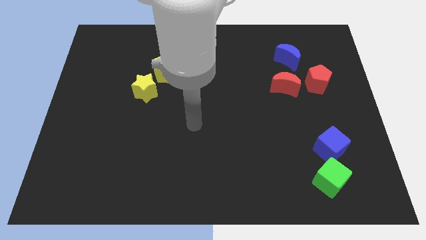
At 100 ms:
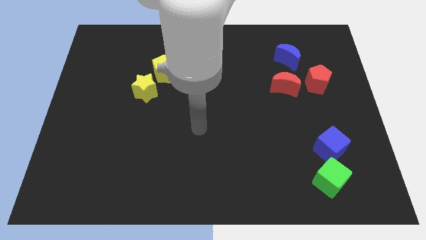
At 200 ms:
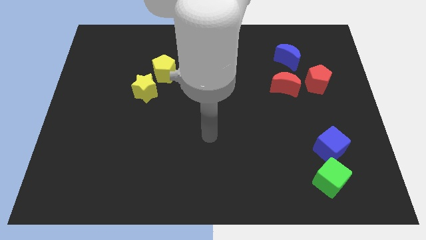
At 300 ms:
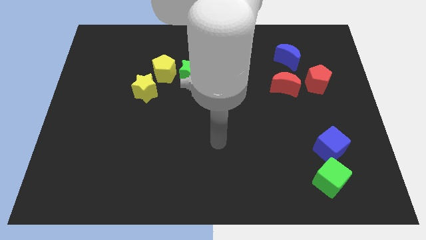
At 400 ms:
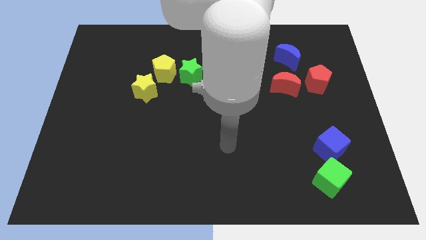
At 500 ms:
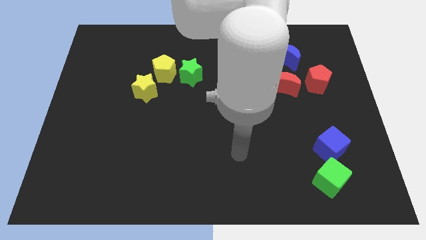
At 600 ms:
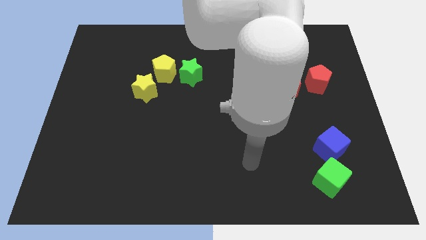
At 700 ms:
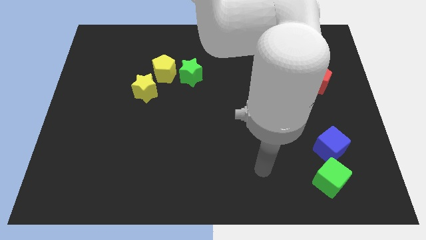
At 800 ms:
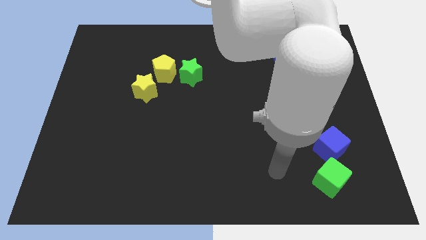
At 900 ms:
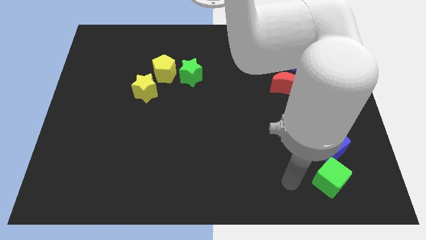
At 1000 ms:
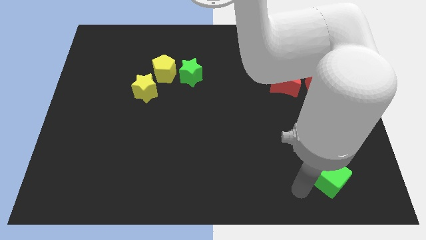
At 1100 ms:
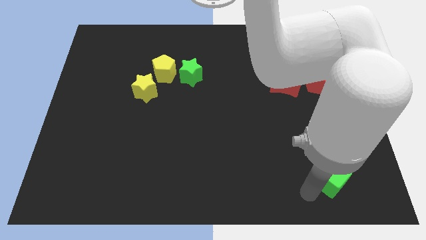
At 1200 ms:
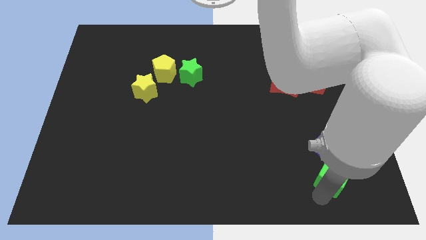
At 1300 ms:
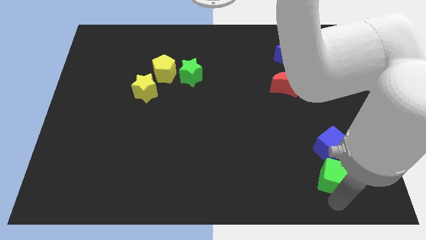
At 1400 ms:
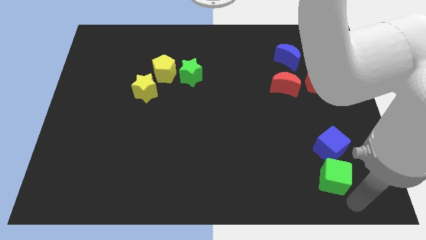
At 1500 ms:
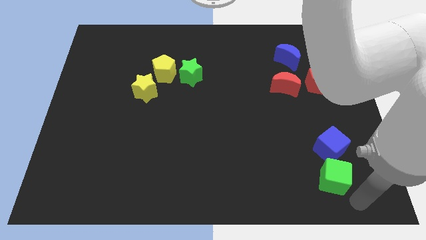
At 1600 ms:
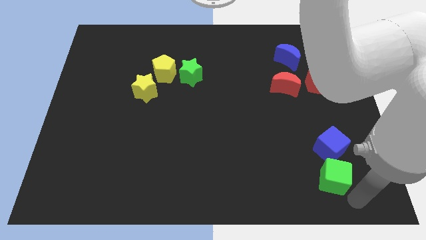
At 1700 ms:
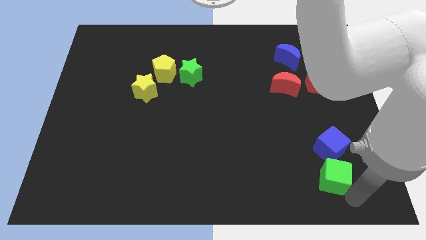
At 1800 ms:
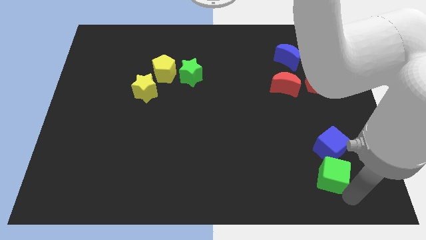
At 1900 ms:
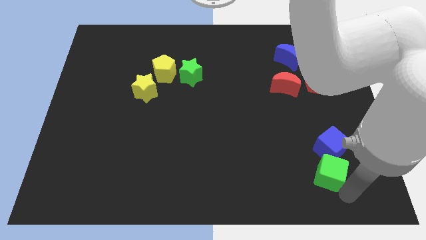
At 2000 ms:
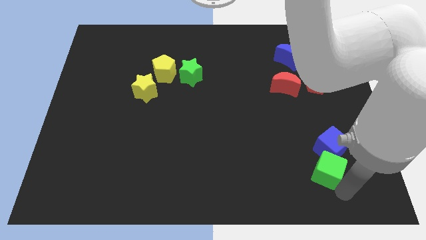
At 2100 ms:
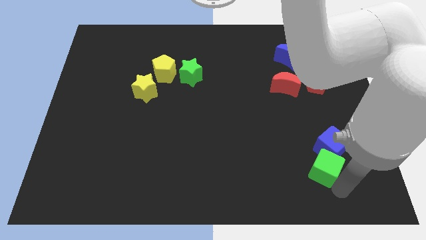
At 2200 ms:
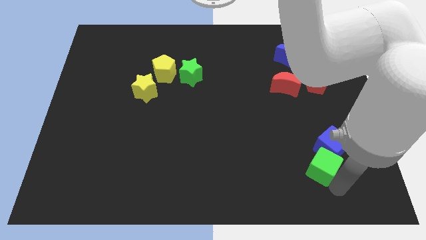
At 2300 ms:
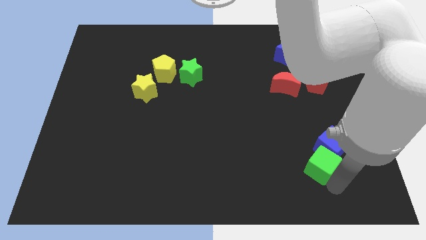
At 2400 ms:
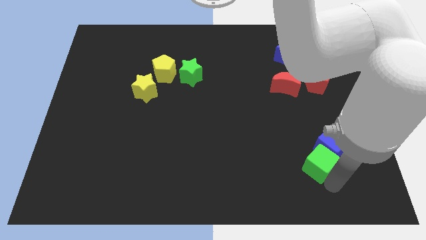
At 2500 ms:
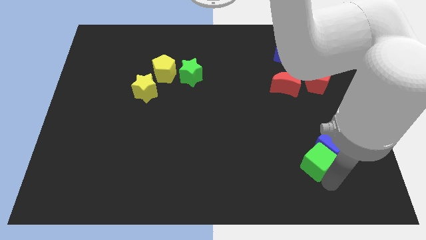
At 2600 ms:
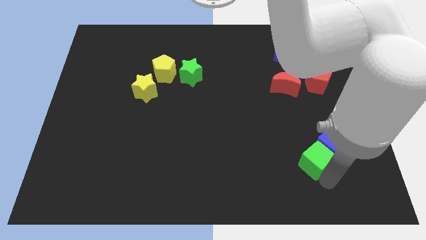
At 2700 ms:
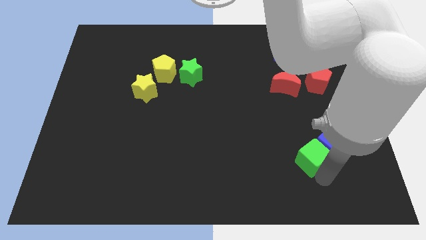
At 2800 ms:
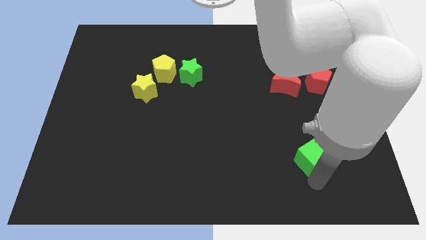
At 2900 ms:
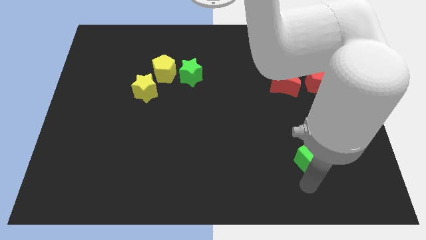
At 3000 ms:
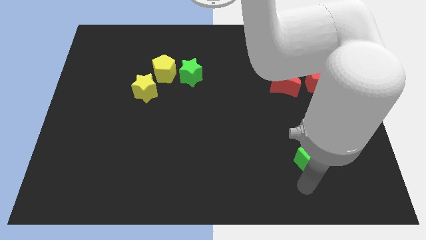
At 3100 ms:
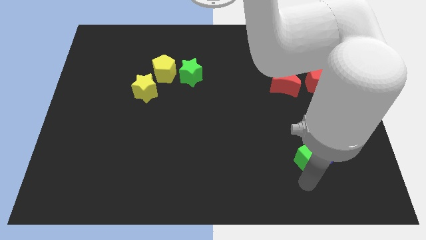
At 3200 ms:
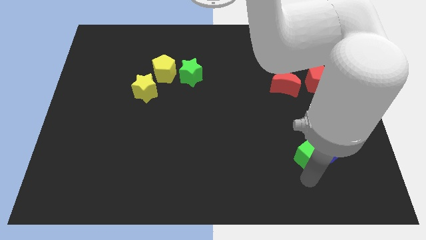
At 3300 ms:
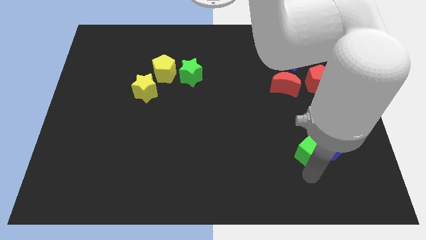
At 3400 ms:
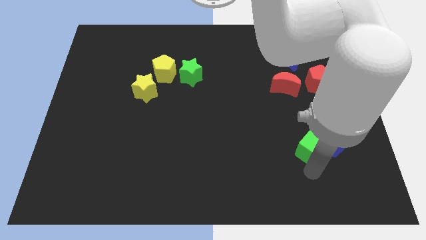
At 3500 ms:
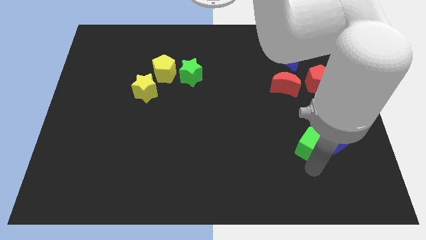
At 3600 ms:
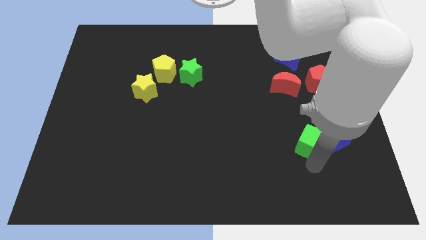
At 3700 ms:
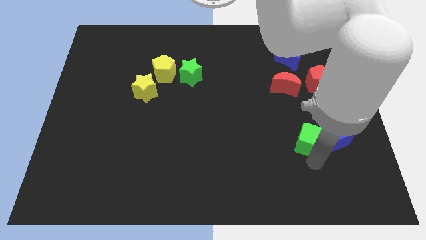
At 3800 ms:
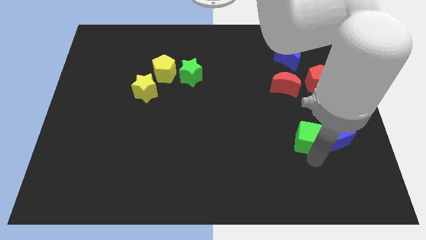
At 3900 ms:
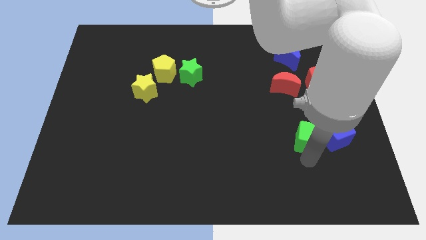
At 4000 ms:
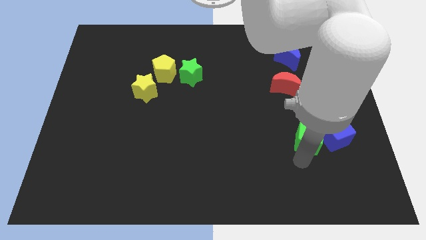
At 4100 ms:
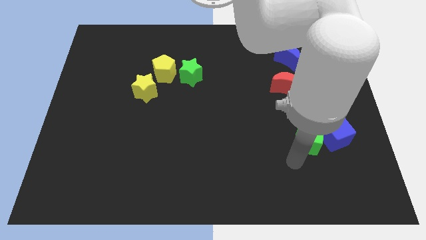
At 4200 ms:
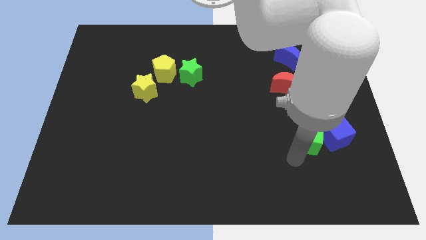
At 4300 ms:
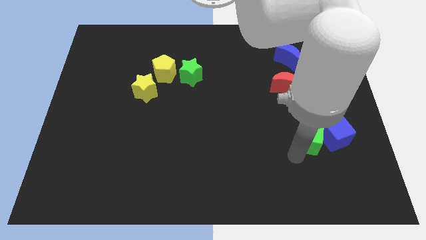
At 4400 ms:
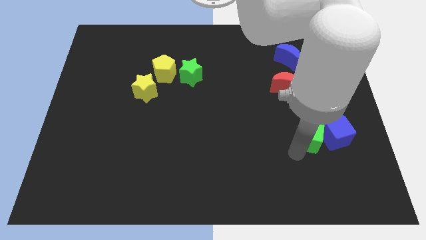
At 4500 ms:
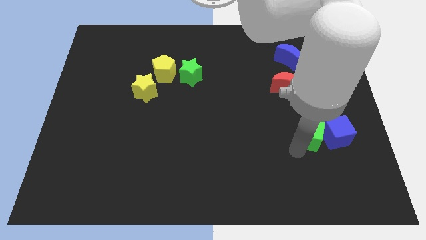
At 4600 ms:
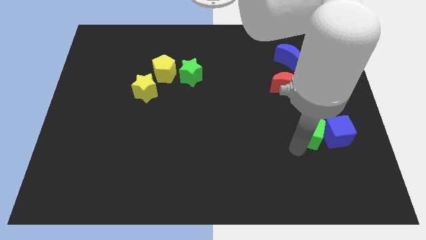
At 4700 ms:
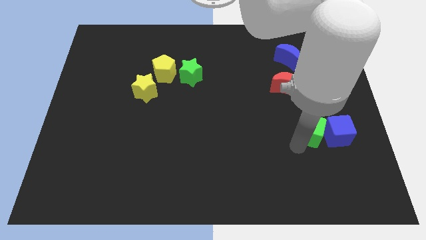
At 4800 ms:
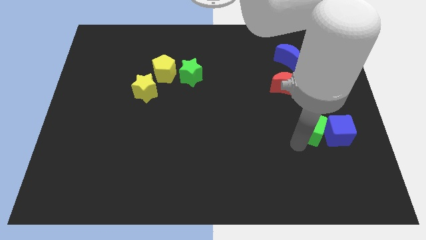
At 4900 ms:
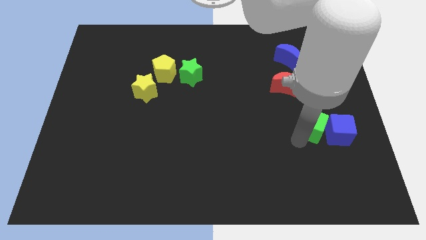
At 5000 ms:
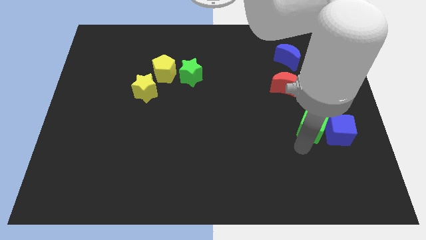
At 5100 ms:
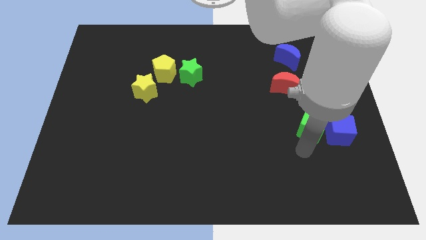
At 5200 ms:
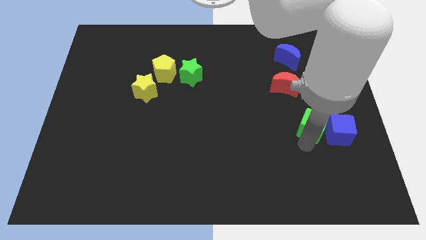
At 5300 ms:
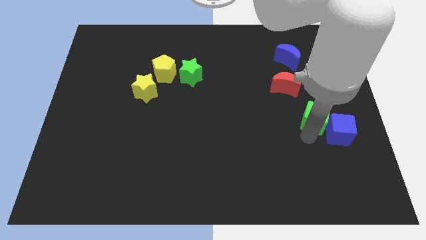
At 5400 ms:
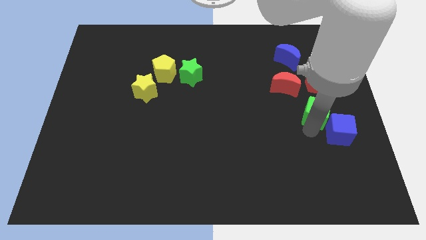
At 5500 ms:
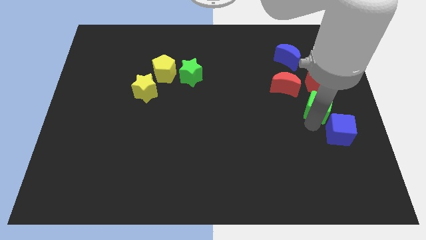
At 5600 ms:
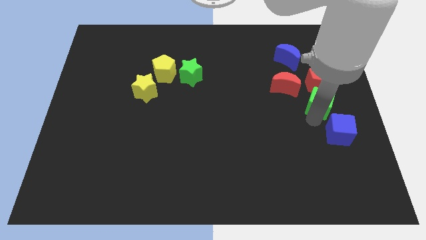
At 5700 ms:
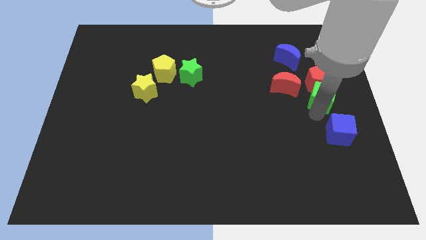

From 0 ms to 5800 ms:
slide the green cube close to the red pentagon
